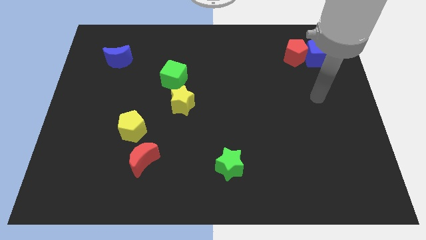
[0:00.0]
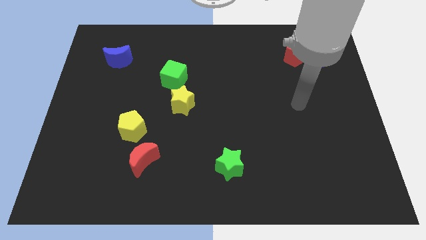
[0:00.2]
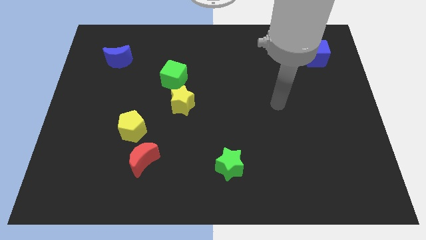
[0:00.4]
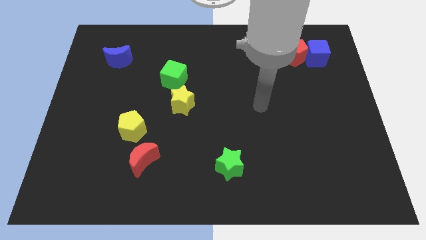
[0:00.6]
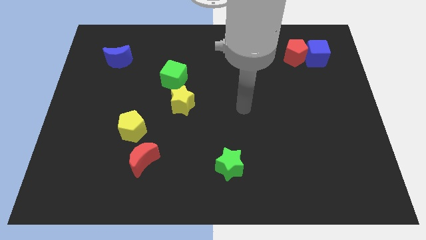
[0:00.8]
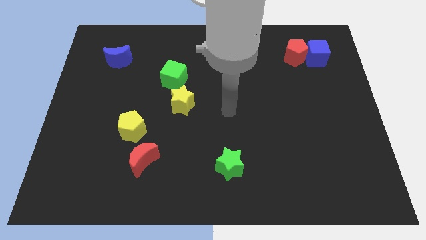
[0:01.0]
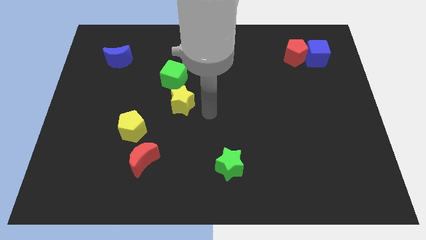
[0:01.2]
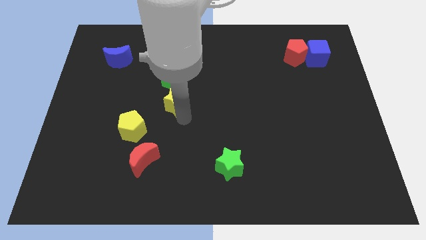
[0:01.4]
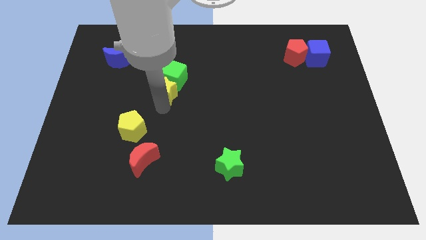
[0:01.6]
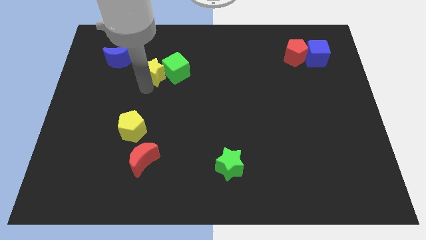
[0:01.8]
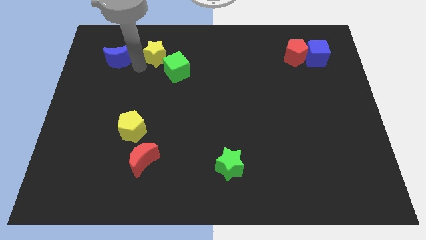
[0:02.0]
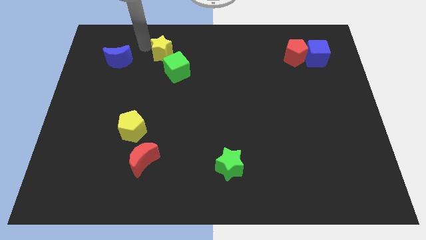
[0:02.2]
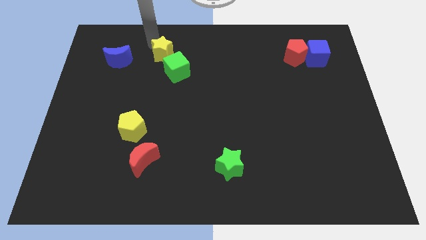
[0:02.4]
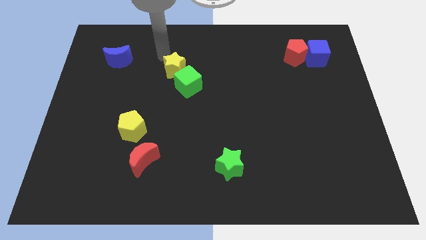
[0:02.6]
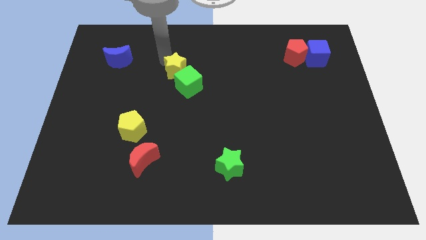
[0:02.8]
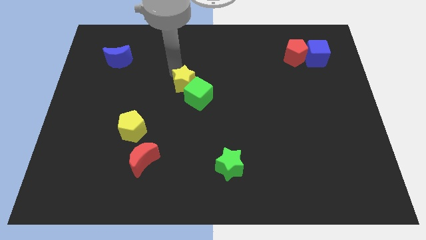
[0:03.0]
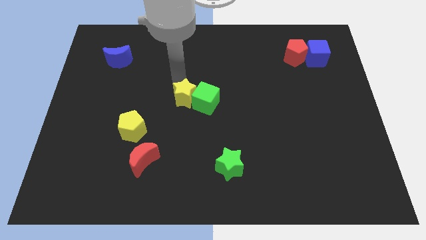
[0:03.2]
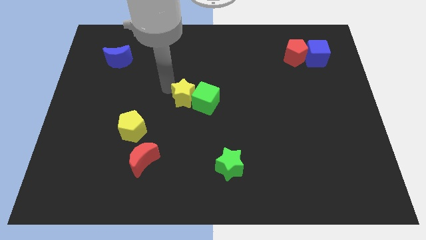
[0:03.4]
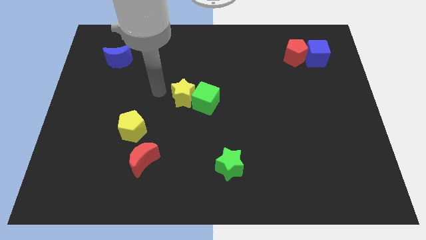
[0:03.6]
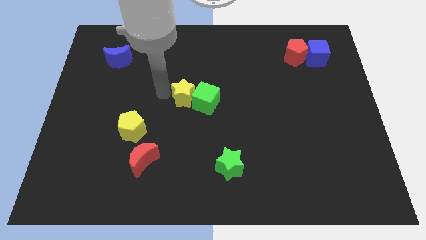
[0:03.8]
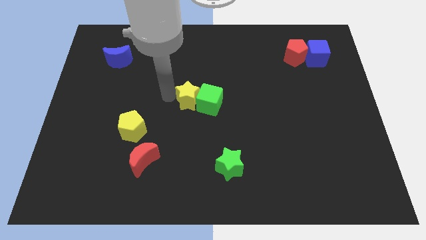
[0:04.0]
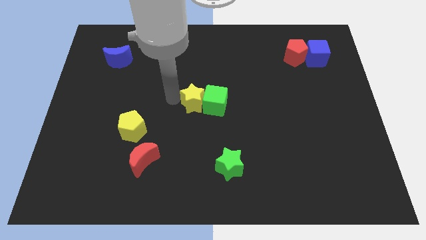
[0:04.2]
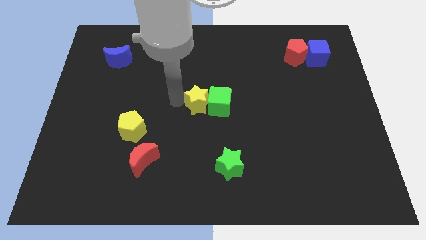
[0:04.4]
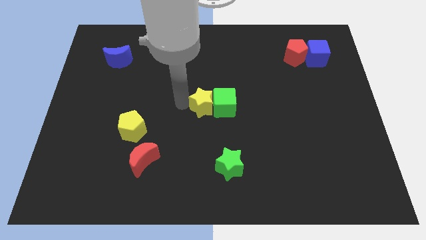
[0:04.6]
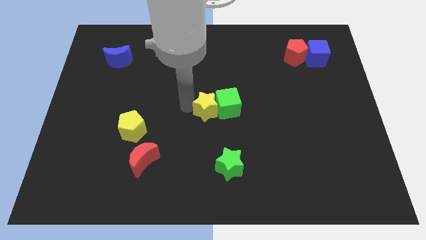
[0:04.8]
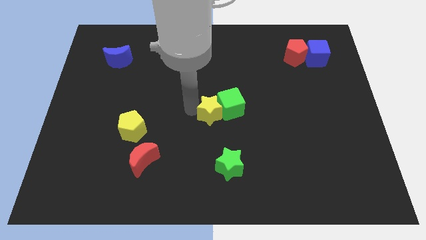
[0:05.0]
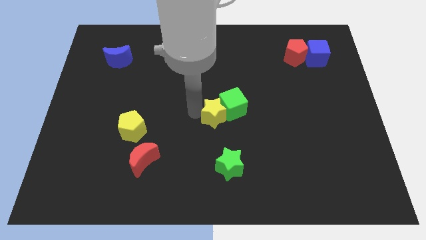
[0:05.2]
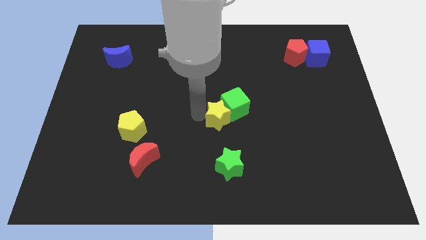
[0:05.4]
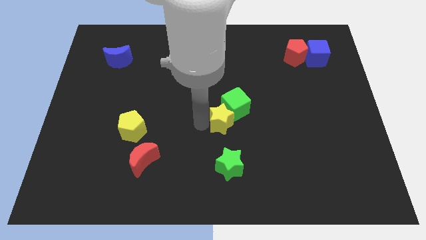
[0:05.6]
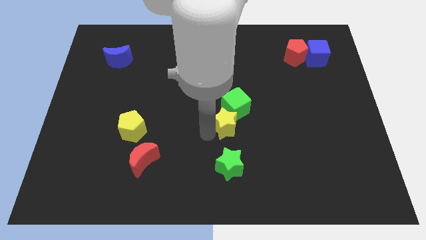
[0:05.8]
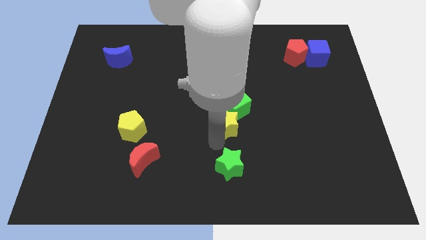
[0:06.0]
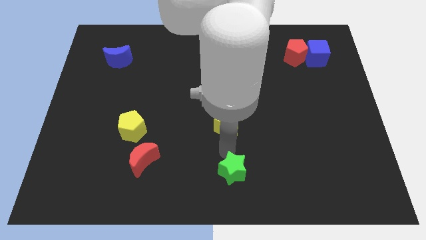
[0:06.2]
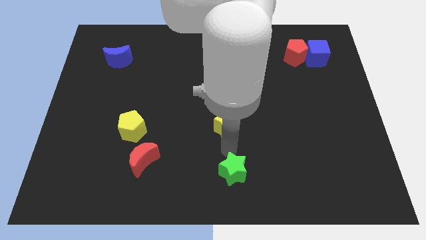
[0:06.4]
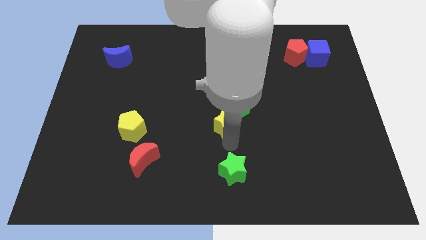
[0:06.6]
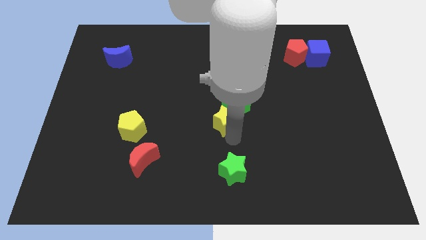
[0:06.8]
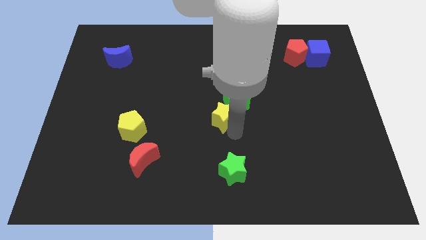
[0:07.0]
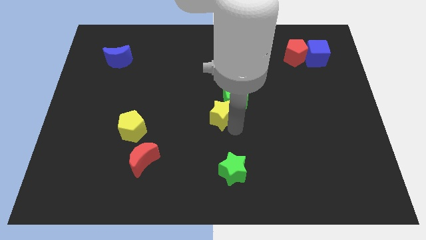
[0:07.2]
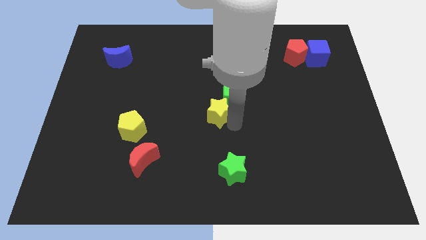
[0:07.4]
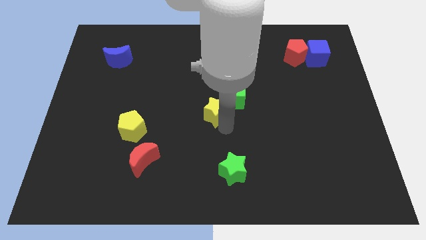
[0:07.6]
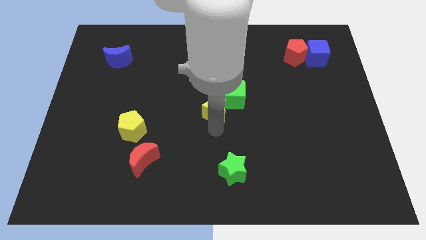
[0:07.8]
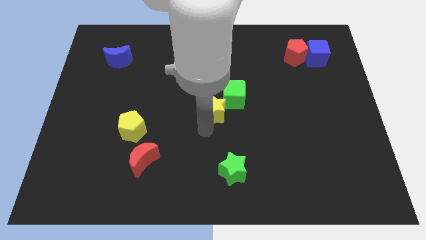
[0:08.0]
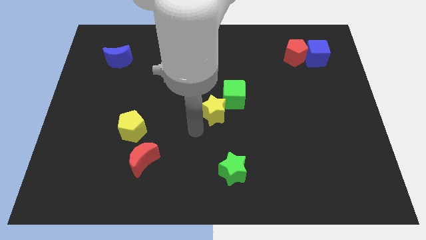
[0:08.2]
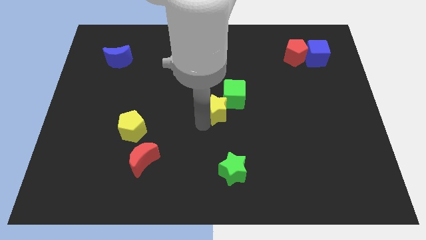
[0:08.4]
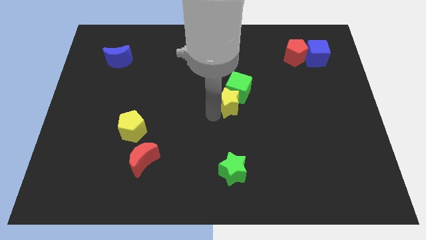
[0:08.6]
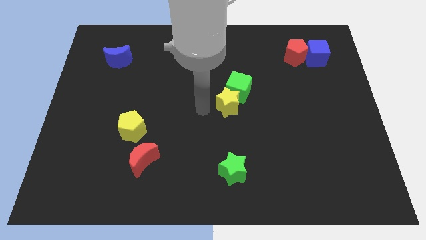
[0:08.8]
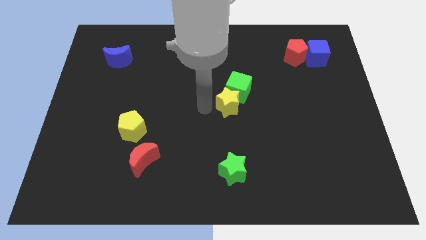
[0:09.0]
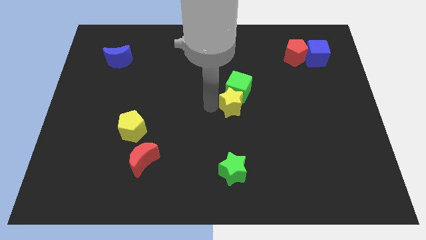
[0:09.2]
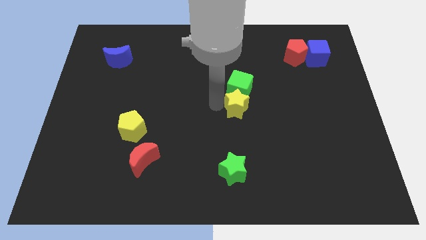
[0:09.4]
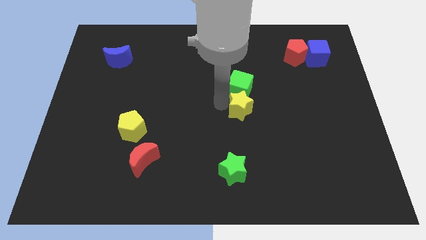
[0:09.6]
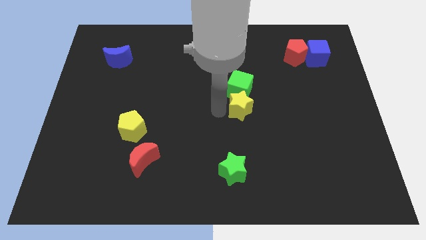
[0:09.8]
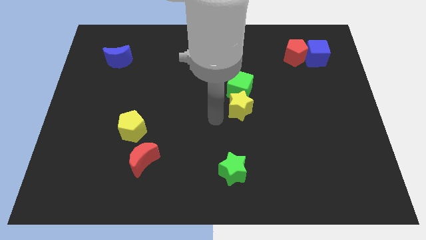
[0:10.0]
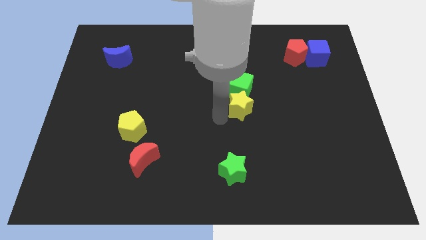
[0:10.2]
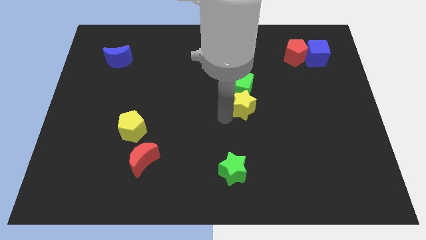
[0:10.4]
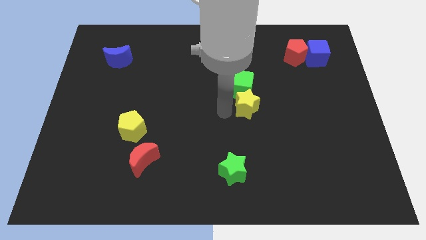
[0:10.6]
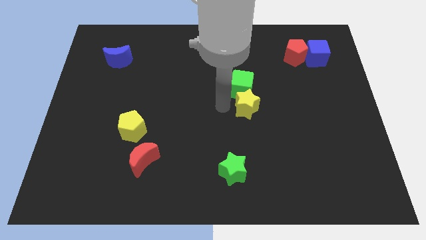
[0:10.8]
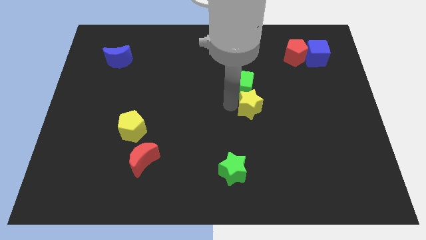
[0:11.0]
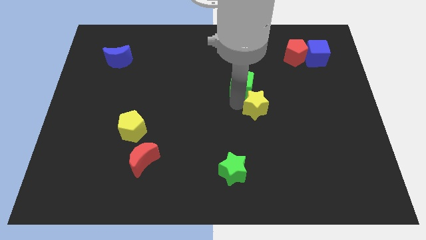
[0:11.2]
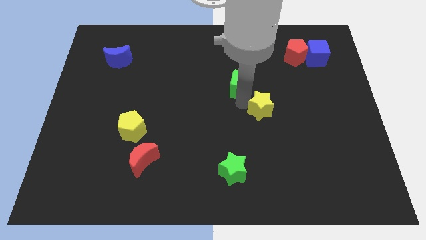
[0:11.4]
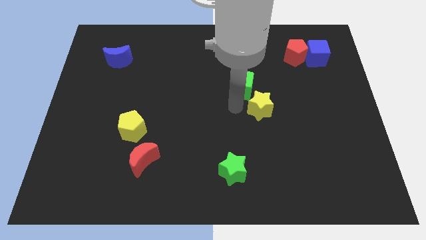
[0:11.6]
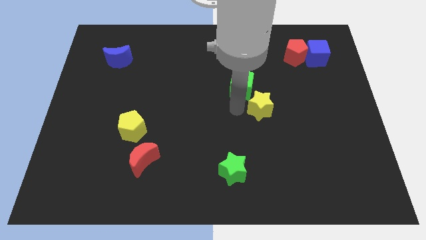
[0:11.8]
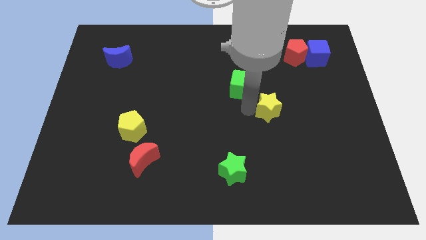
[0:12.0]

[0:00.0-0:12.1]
move the yellow star right

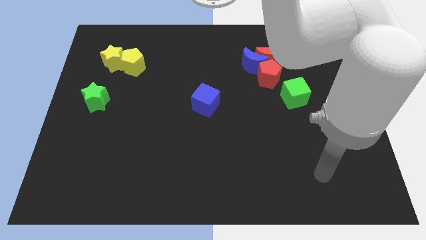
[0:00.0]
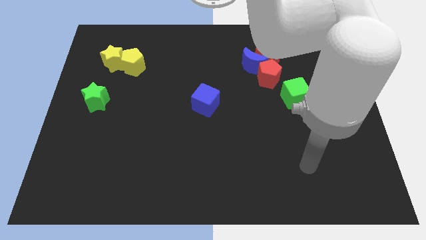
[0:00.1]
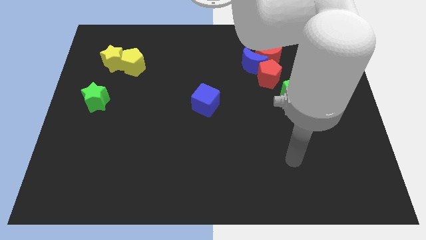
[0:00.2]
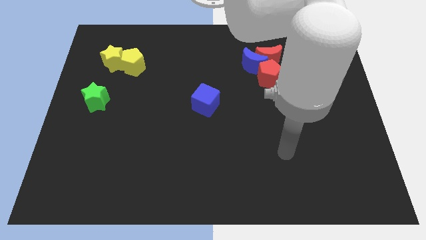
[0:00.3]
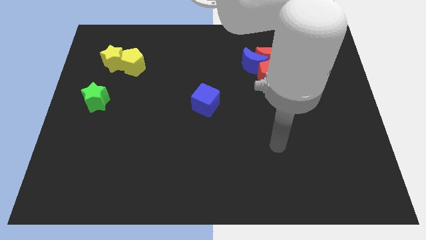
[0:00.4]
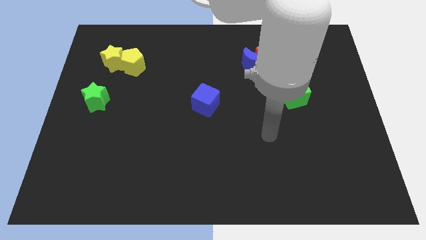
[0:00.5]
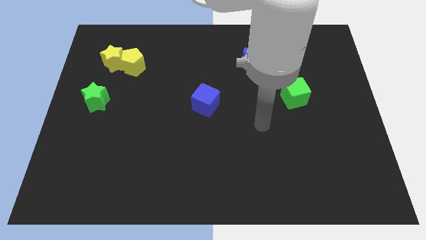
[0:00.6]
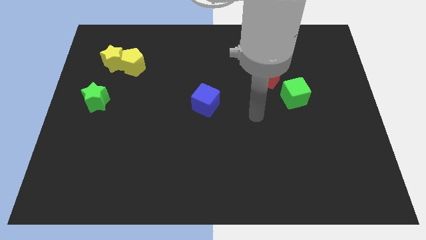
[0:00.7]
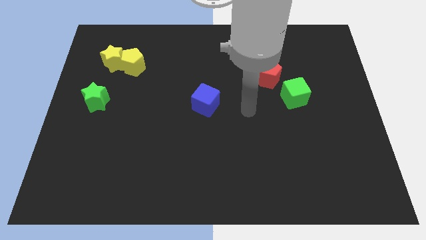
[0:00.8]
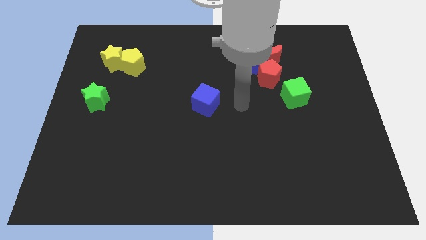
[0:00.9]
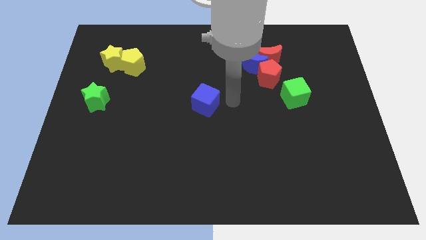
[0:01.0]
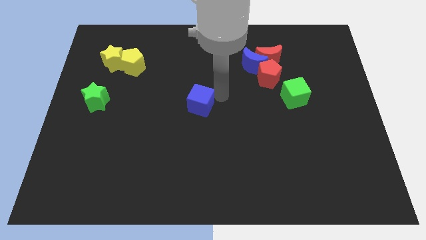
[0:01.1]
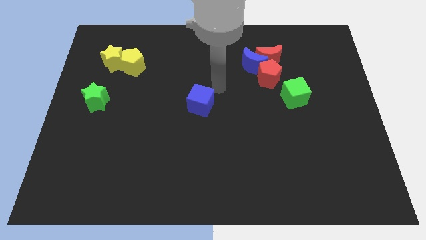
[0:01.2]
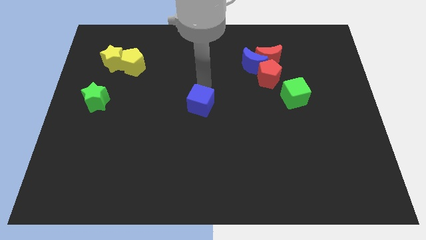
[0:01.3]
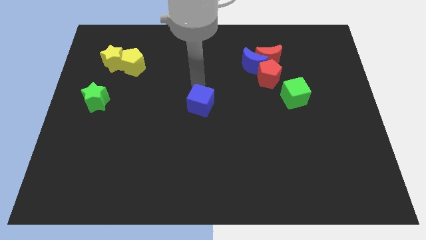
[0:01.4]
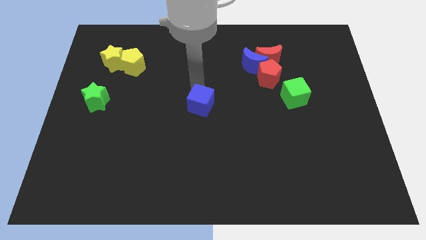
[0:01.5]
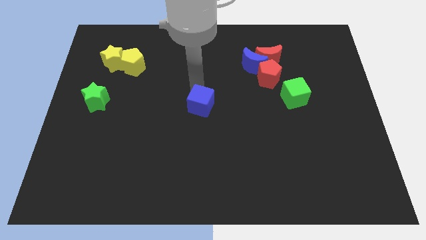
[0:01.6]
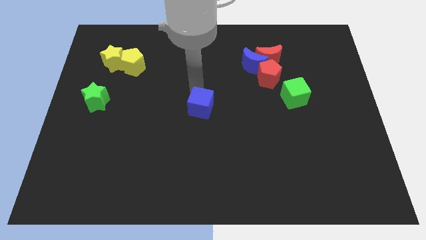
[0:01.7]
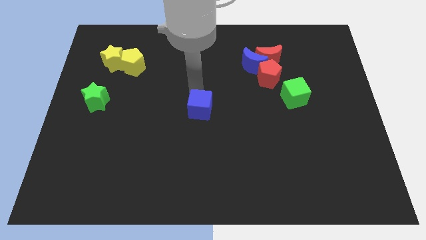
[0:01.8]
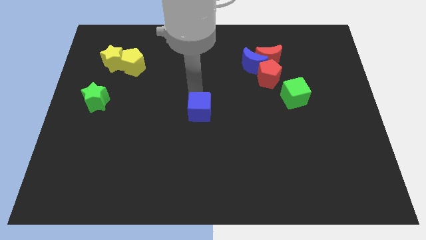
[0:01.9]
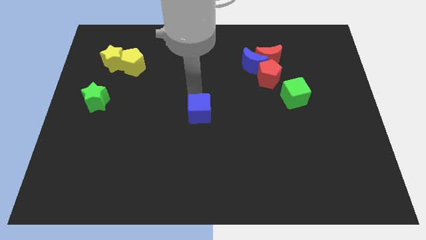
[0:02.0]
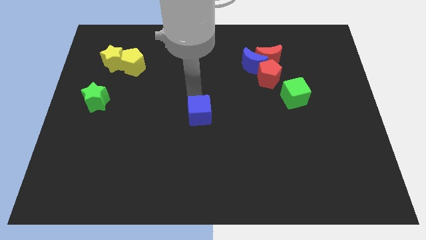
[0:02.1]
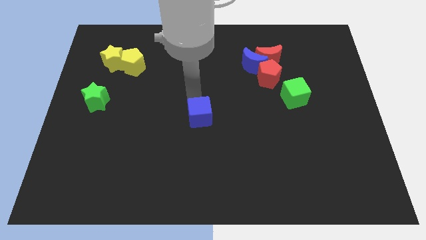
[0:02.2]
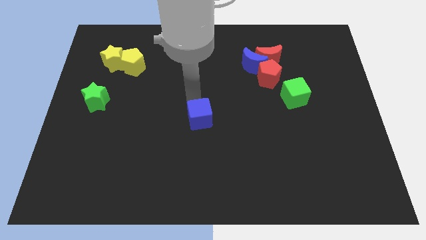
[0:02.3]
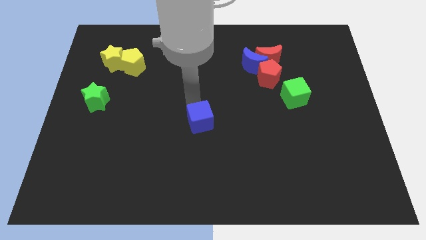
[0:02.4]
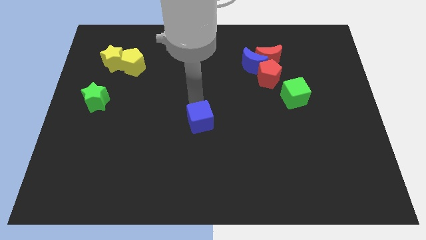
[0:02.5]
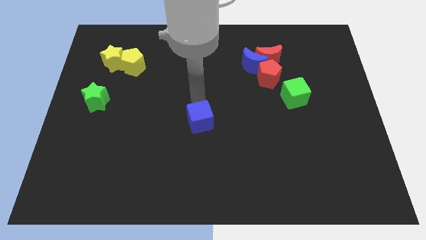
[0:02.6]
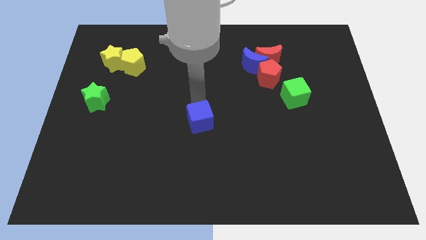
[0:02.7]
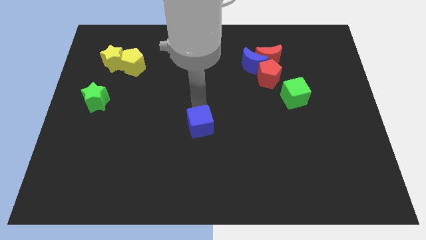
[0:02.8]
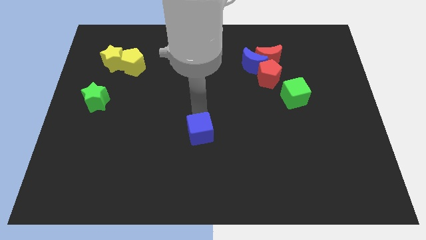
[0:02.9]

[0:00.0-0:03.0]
slide the blue cube down a little
